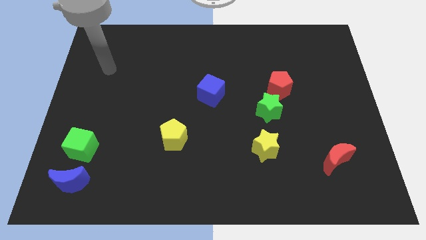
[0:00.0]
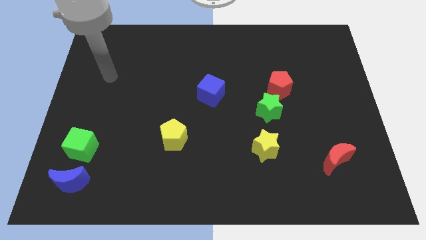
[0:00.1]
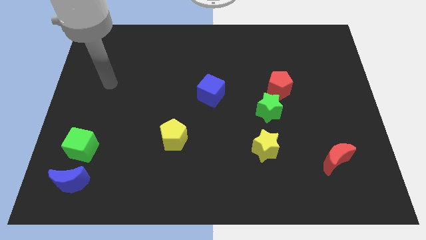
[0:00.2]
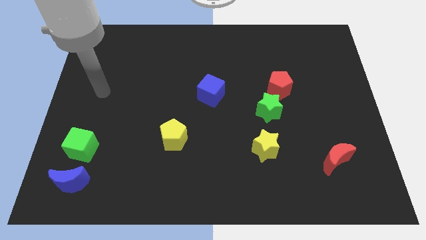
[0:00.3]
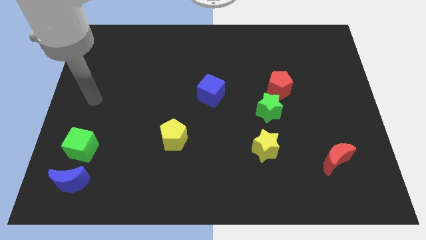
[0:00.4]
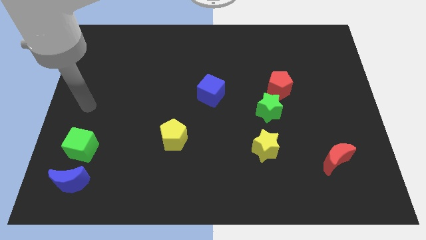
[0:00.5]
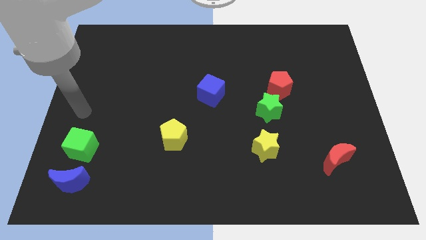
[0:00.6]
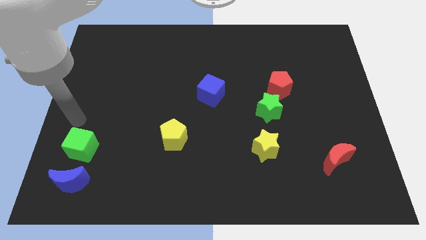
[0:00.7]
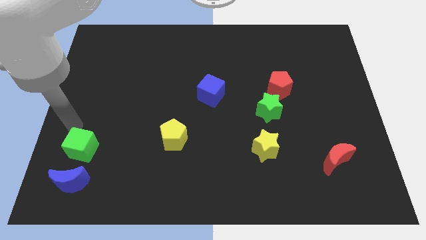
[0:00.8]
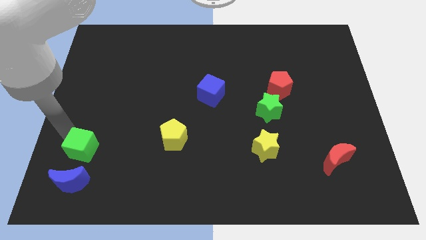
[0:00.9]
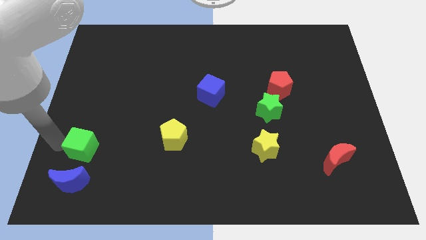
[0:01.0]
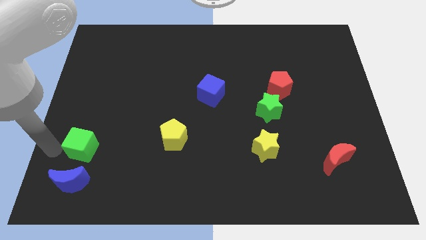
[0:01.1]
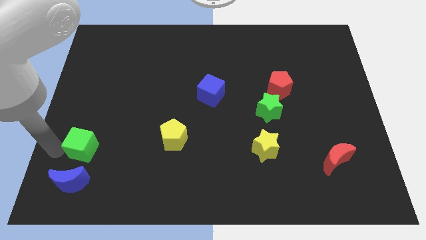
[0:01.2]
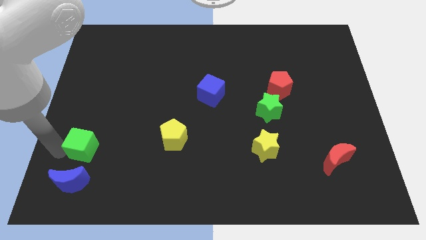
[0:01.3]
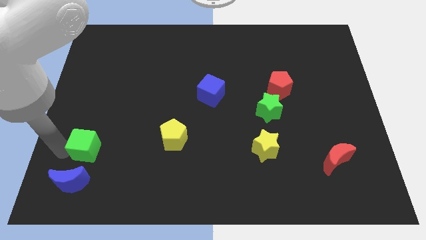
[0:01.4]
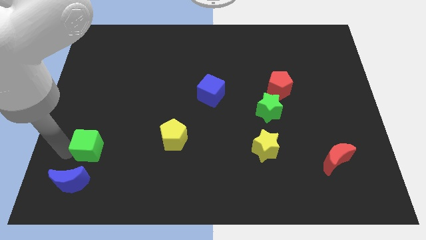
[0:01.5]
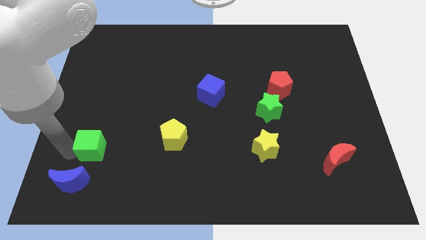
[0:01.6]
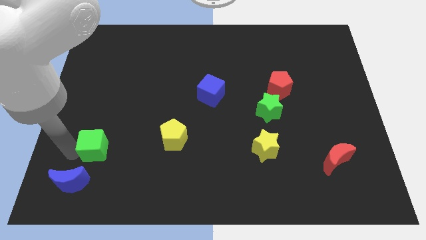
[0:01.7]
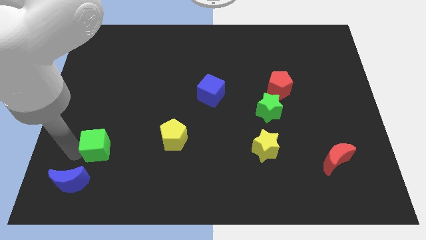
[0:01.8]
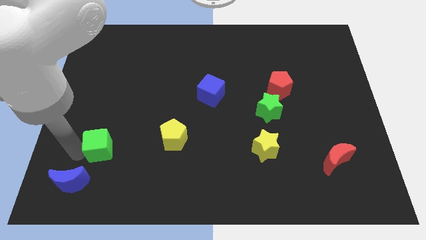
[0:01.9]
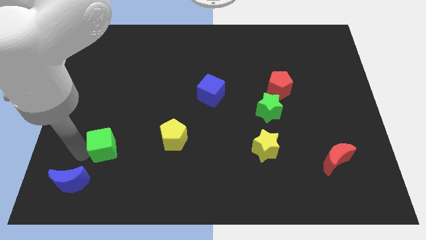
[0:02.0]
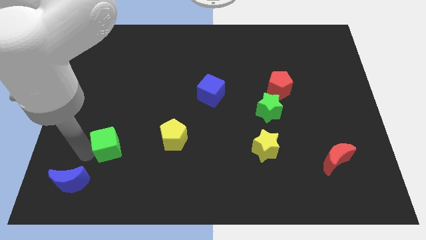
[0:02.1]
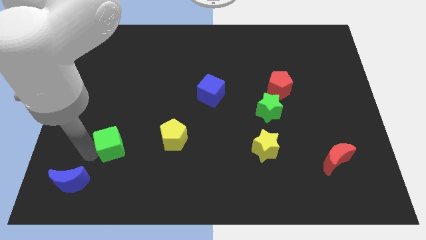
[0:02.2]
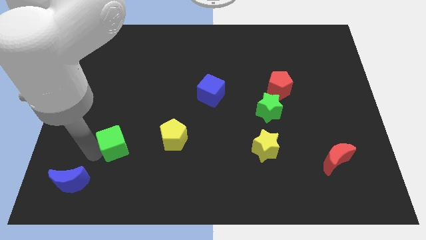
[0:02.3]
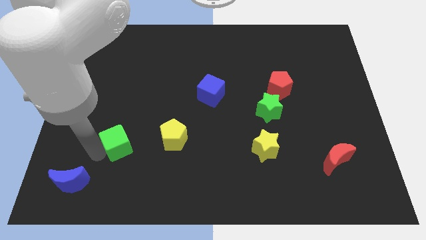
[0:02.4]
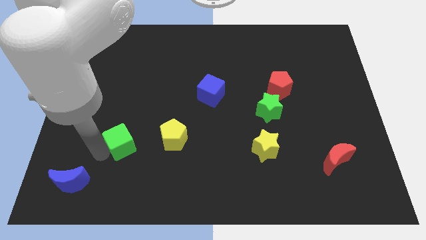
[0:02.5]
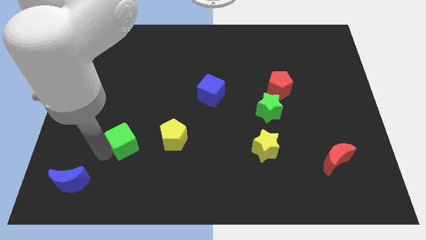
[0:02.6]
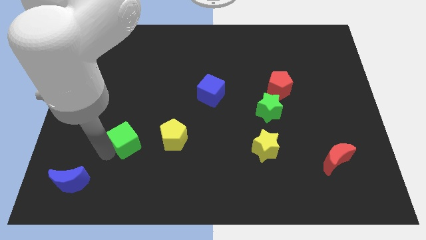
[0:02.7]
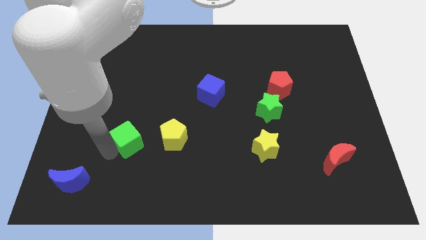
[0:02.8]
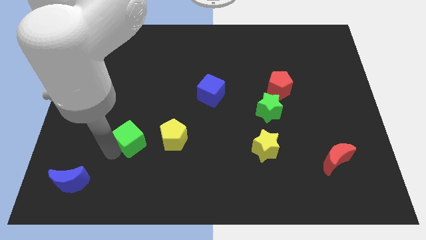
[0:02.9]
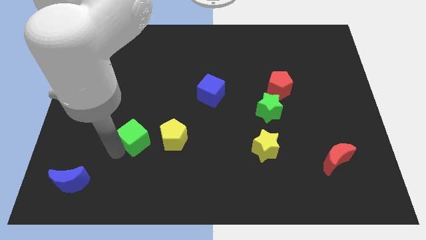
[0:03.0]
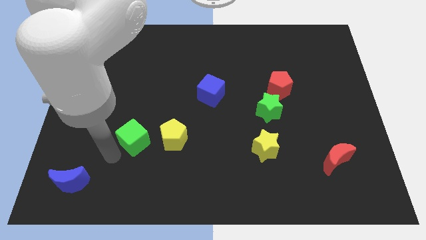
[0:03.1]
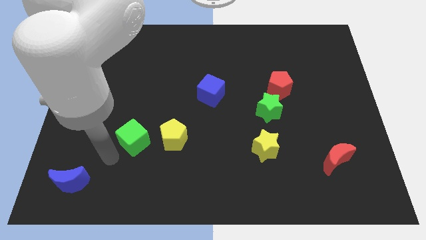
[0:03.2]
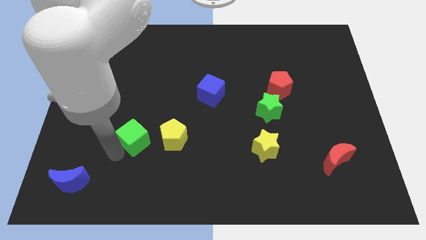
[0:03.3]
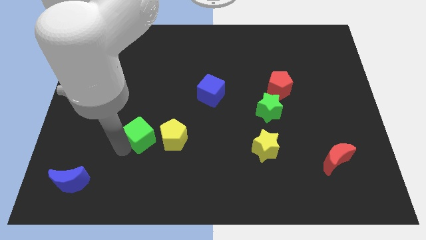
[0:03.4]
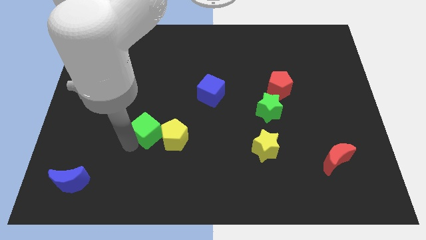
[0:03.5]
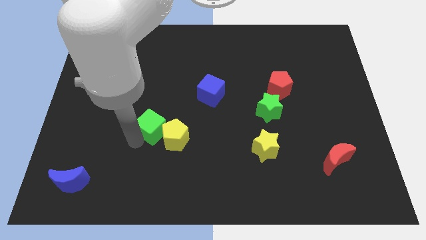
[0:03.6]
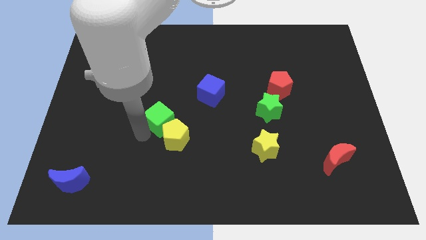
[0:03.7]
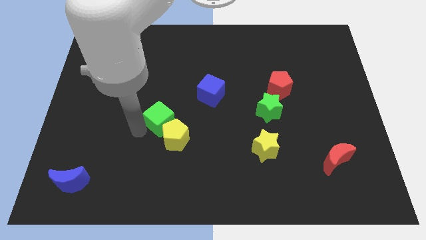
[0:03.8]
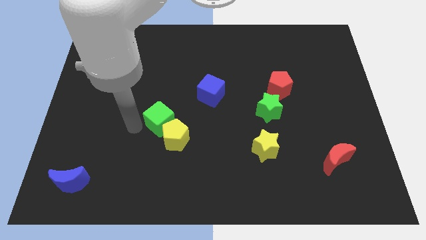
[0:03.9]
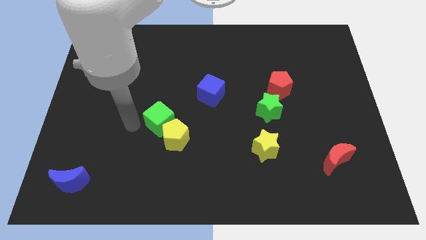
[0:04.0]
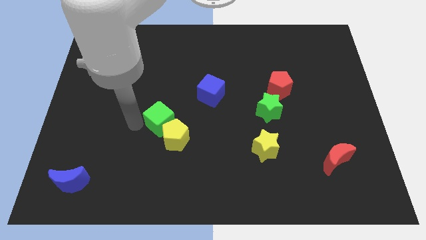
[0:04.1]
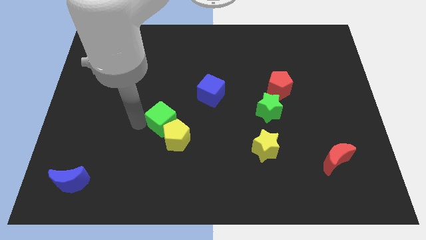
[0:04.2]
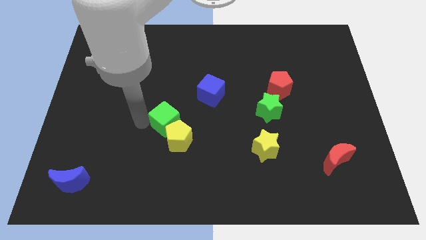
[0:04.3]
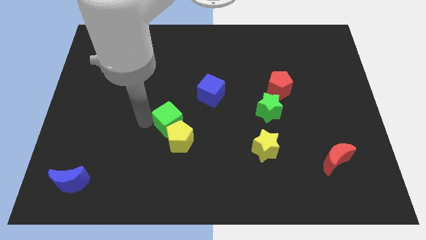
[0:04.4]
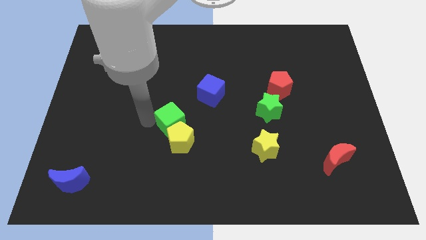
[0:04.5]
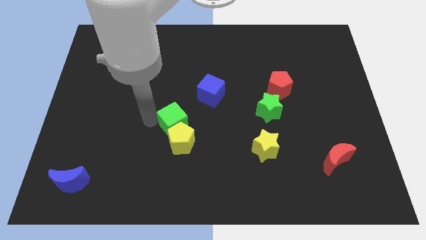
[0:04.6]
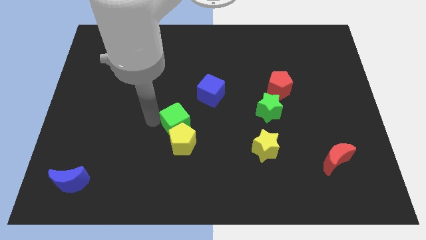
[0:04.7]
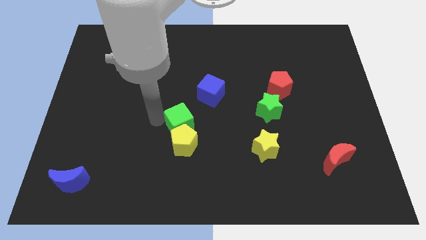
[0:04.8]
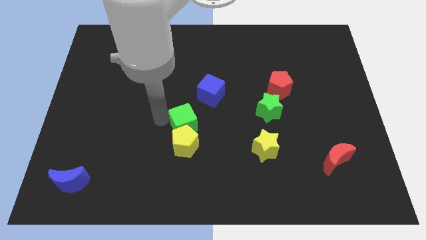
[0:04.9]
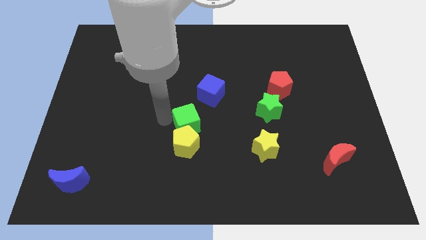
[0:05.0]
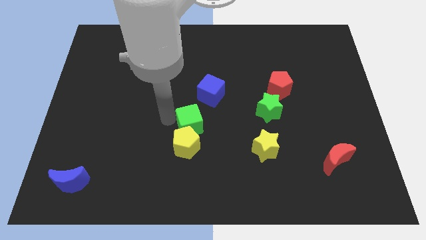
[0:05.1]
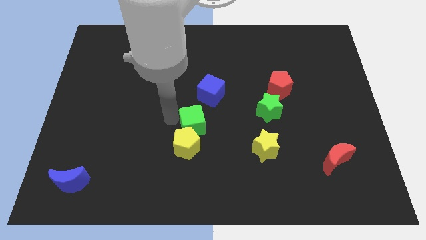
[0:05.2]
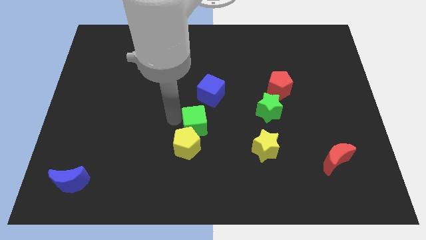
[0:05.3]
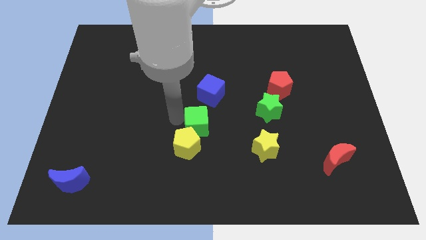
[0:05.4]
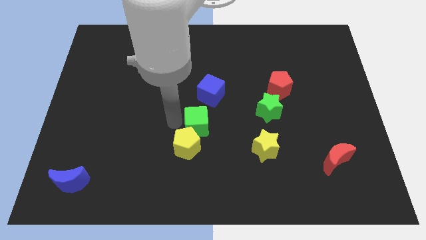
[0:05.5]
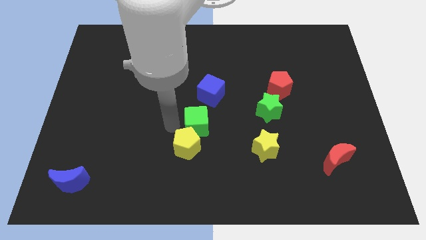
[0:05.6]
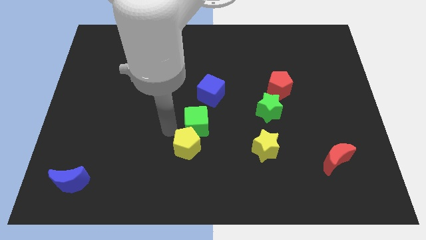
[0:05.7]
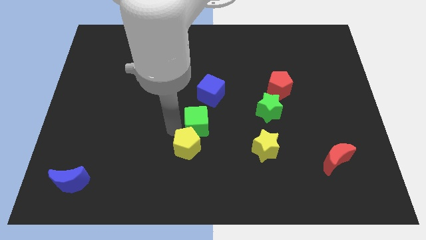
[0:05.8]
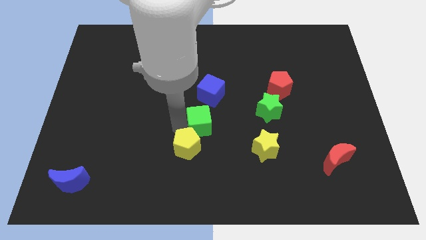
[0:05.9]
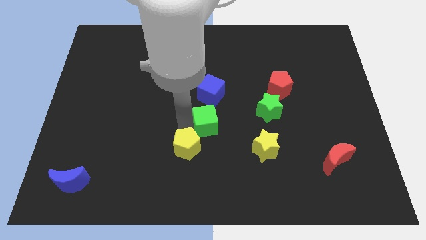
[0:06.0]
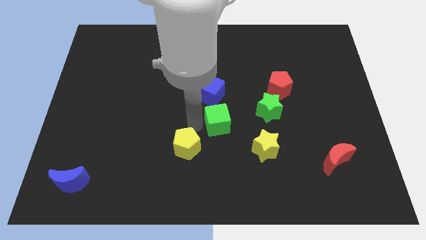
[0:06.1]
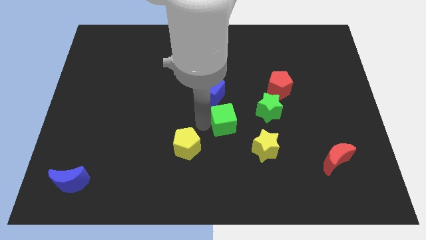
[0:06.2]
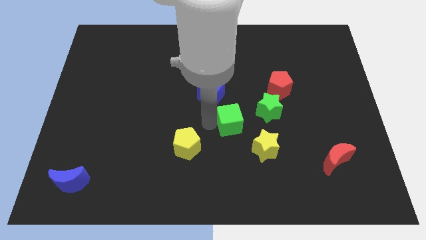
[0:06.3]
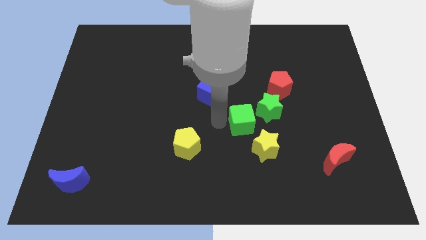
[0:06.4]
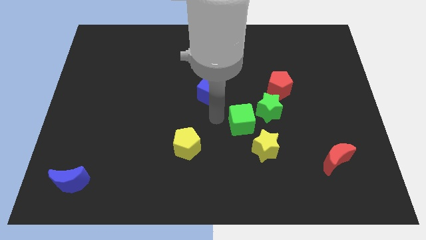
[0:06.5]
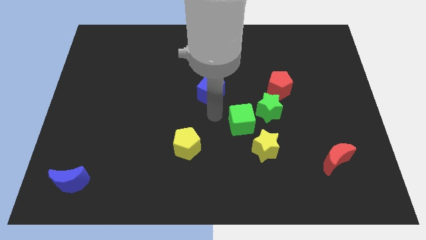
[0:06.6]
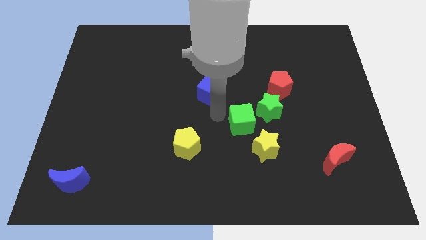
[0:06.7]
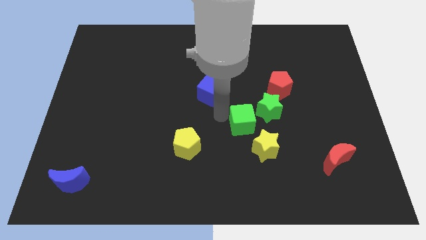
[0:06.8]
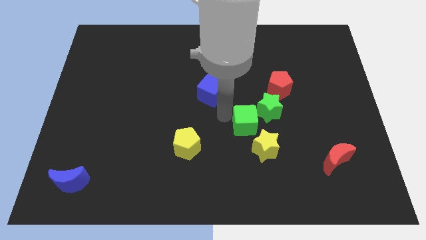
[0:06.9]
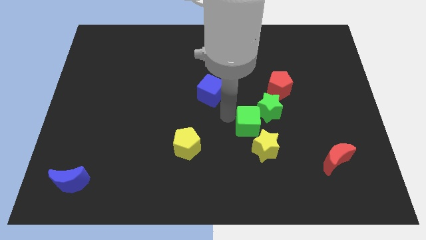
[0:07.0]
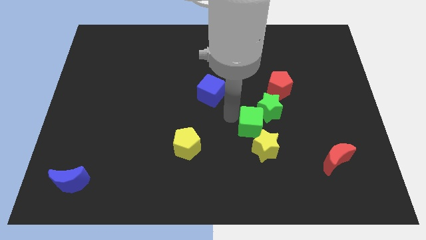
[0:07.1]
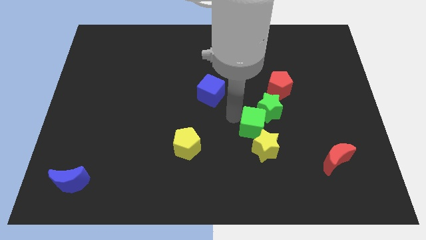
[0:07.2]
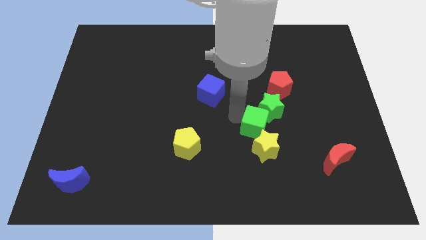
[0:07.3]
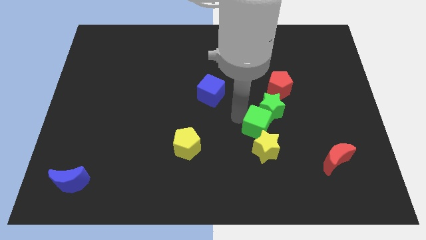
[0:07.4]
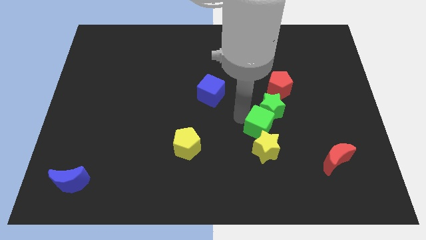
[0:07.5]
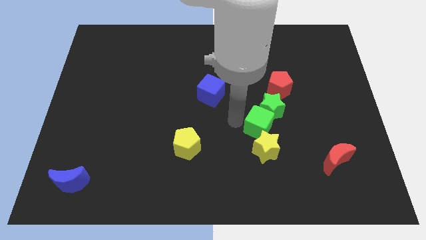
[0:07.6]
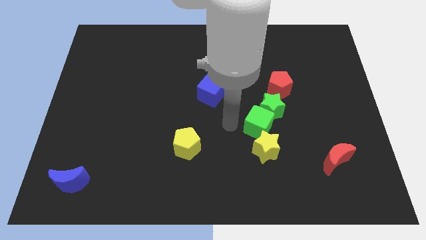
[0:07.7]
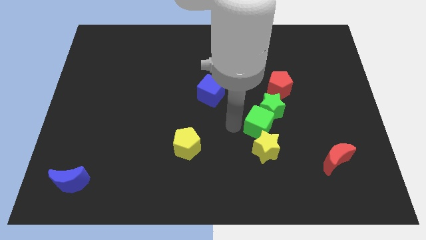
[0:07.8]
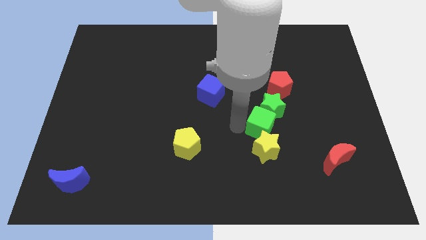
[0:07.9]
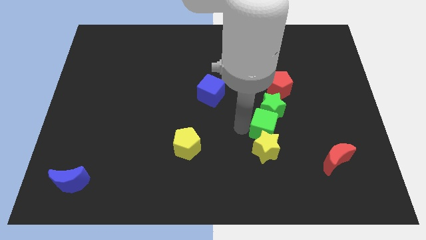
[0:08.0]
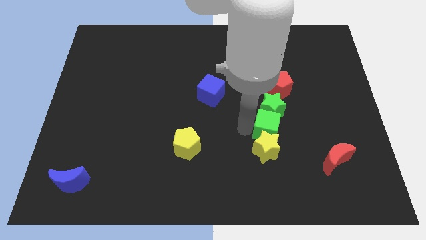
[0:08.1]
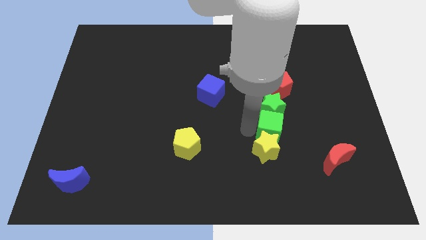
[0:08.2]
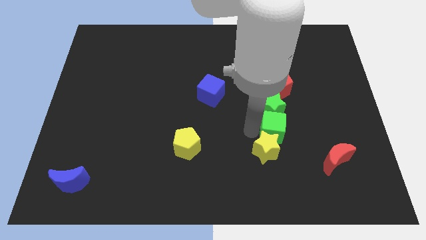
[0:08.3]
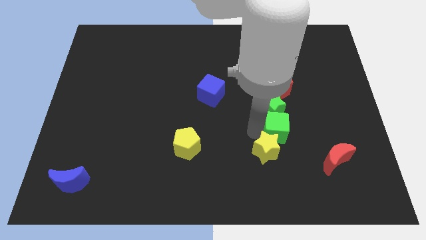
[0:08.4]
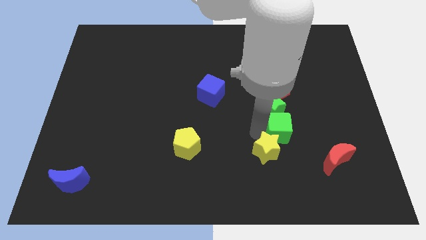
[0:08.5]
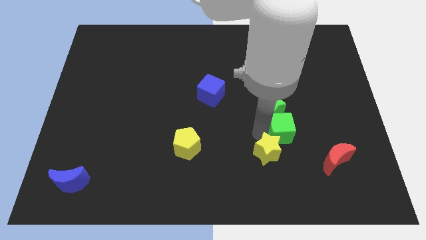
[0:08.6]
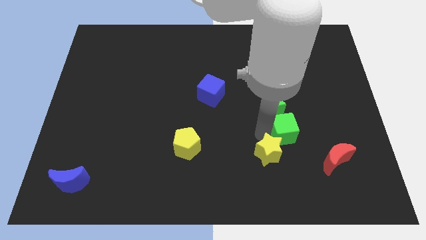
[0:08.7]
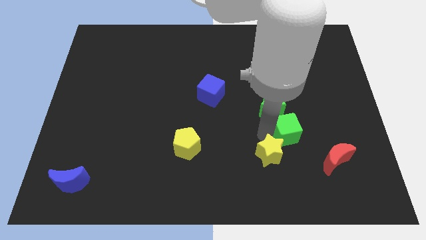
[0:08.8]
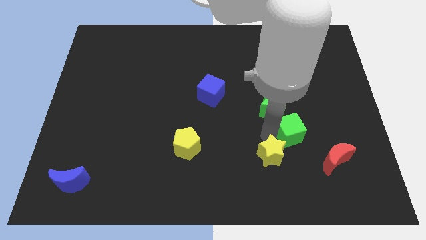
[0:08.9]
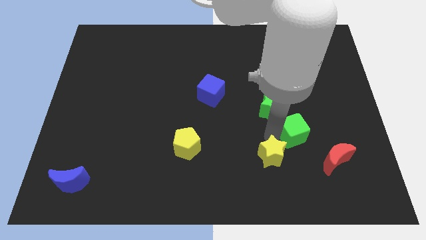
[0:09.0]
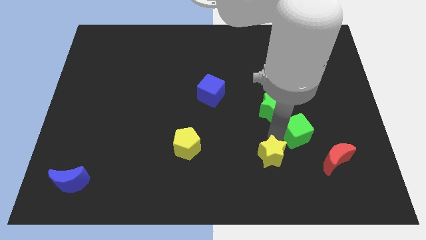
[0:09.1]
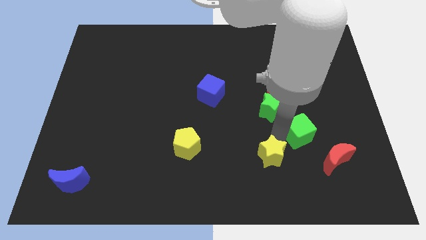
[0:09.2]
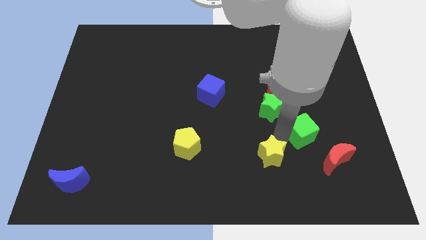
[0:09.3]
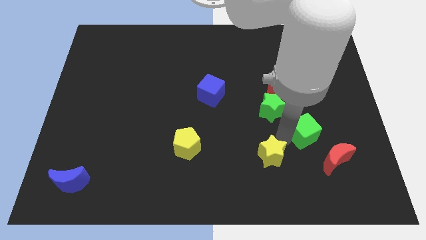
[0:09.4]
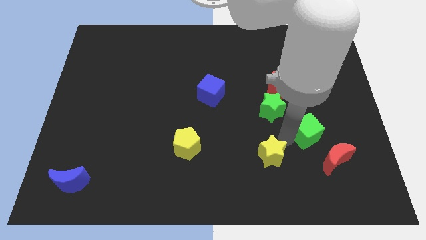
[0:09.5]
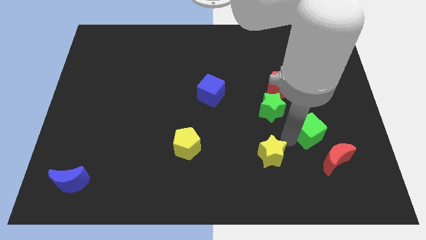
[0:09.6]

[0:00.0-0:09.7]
put the green cube above the red moon
